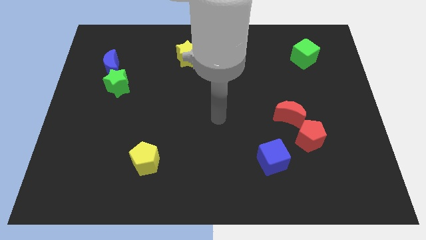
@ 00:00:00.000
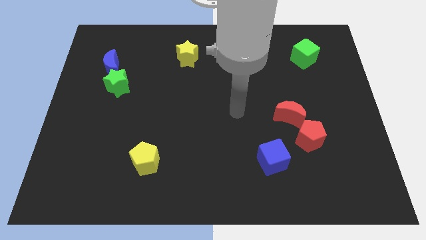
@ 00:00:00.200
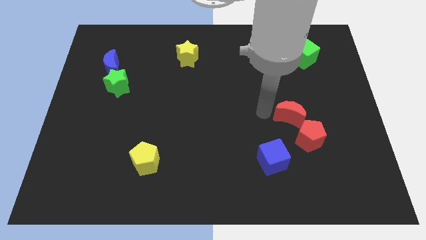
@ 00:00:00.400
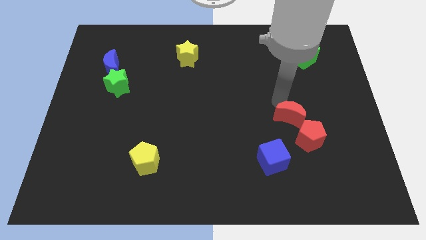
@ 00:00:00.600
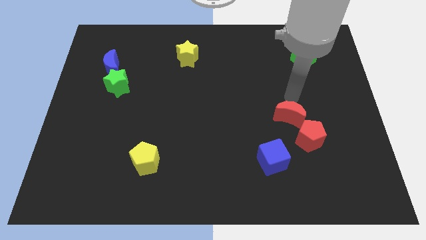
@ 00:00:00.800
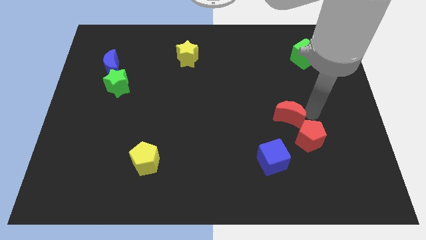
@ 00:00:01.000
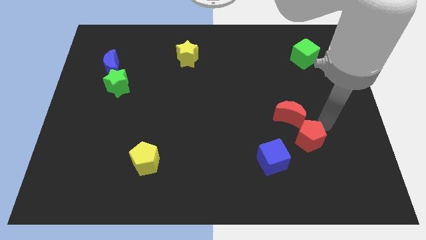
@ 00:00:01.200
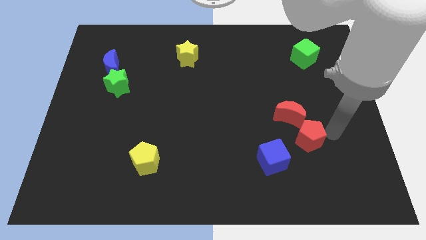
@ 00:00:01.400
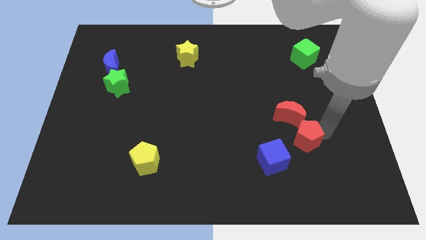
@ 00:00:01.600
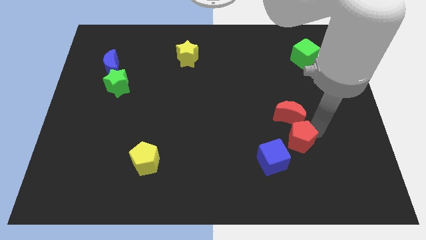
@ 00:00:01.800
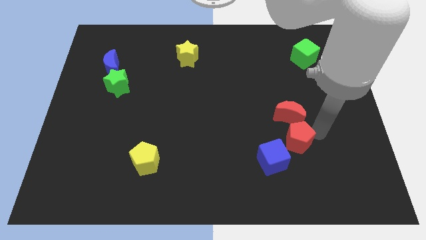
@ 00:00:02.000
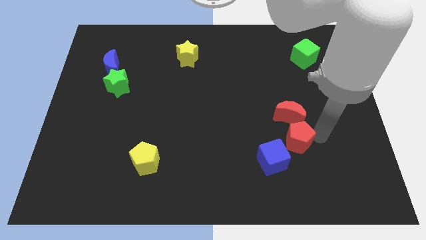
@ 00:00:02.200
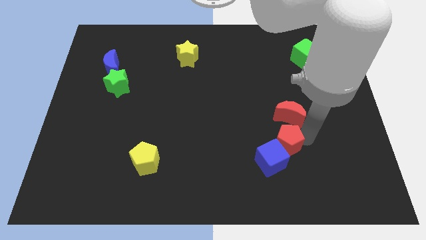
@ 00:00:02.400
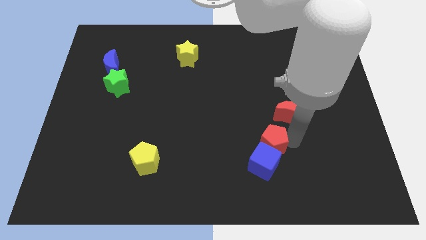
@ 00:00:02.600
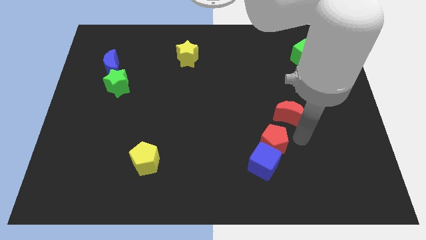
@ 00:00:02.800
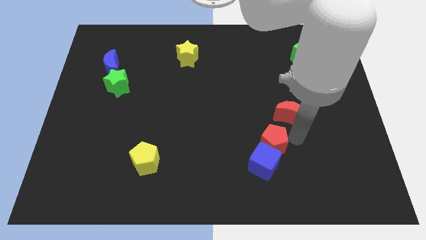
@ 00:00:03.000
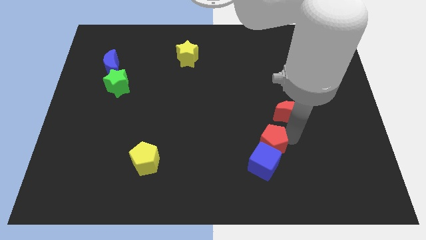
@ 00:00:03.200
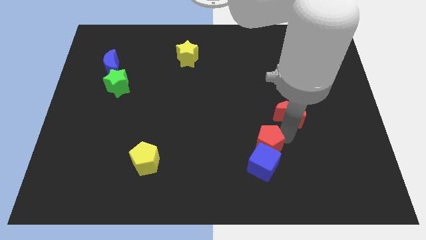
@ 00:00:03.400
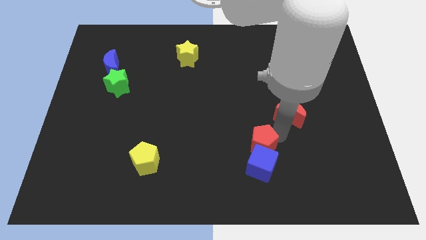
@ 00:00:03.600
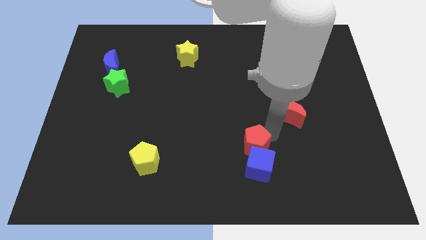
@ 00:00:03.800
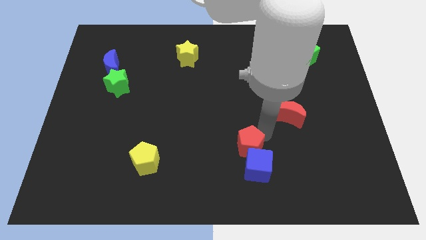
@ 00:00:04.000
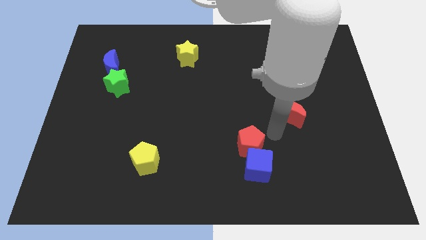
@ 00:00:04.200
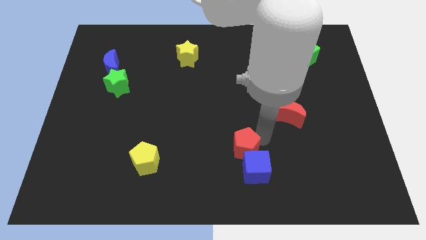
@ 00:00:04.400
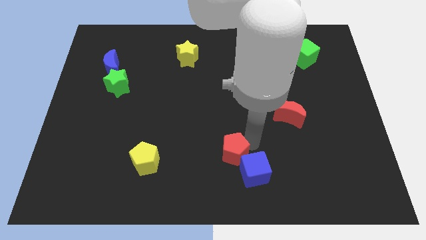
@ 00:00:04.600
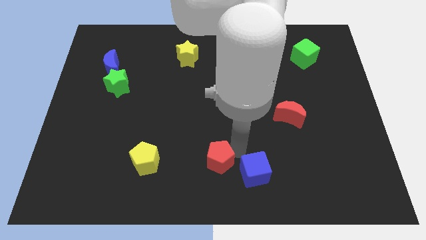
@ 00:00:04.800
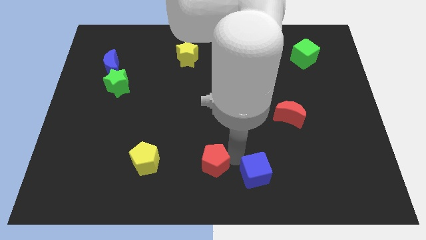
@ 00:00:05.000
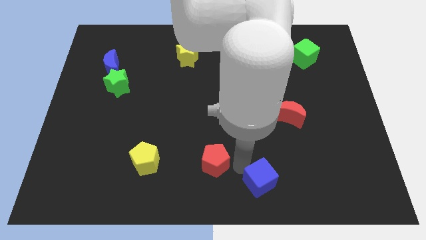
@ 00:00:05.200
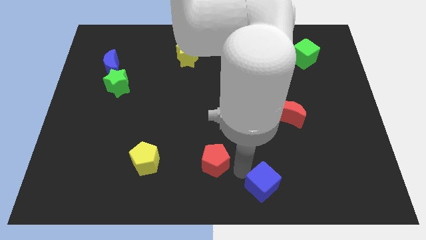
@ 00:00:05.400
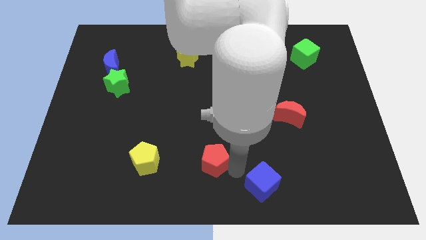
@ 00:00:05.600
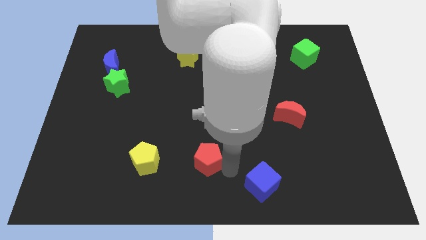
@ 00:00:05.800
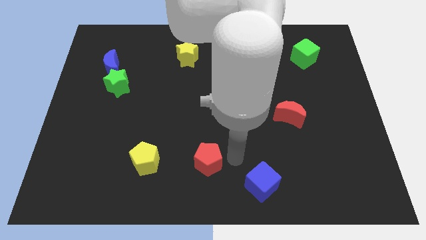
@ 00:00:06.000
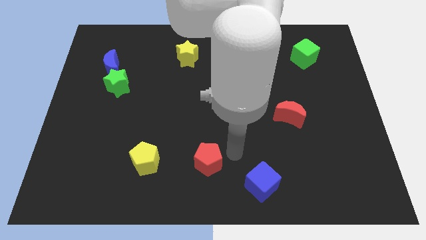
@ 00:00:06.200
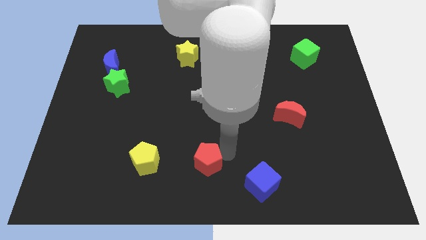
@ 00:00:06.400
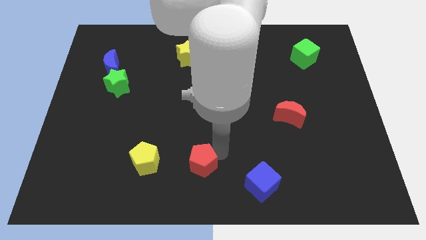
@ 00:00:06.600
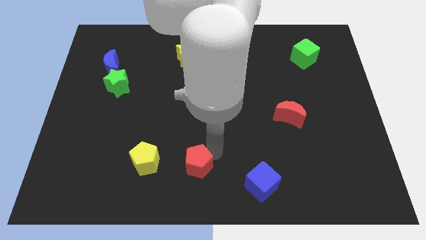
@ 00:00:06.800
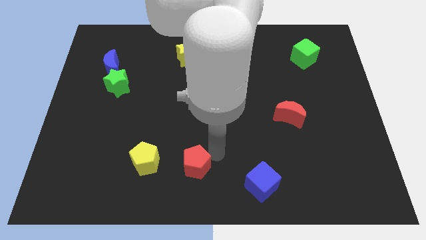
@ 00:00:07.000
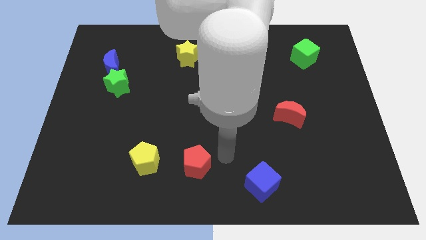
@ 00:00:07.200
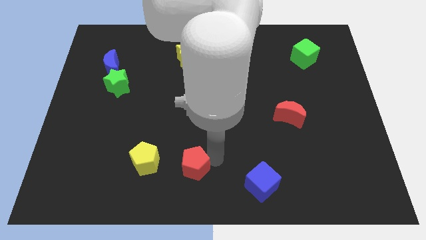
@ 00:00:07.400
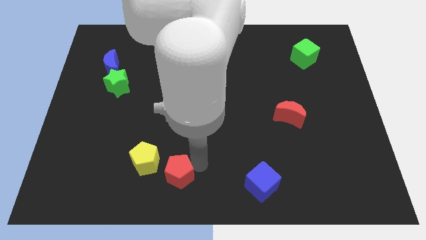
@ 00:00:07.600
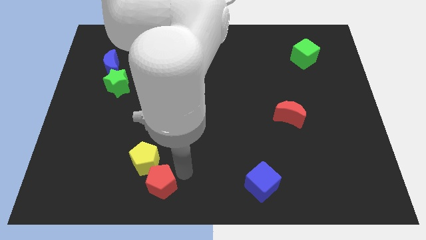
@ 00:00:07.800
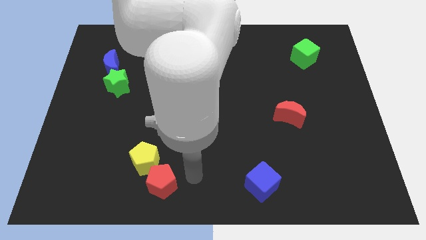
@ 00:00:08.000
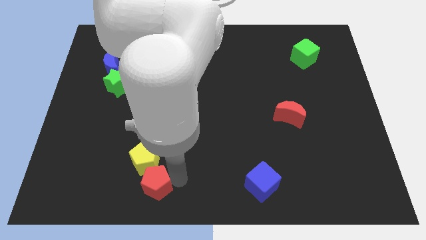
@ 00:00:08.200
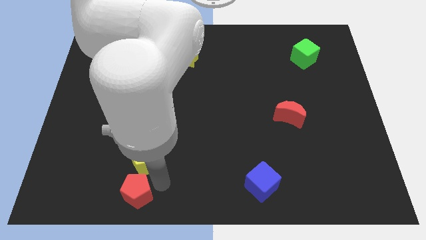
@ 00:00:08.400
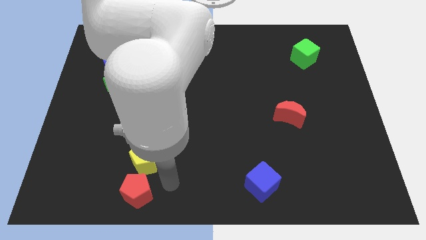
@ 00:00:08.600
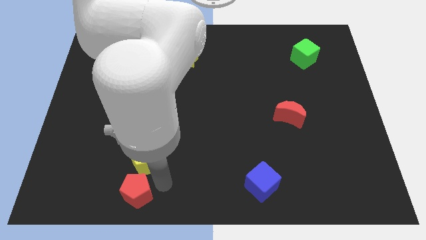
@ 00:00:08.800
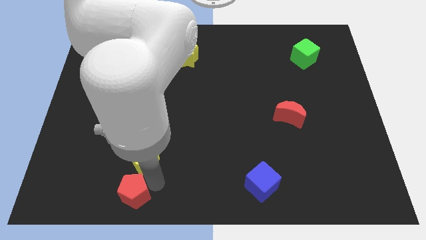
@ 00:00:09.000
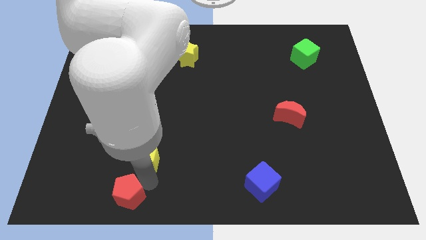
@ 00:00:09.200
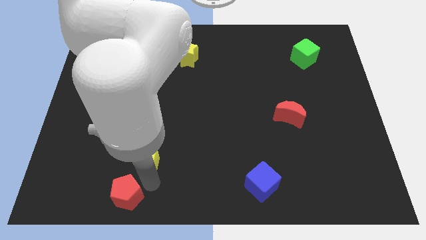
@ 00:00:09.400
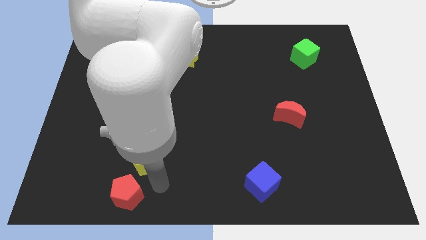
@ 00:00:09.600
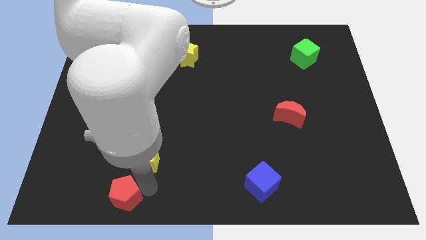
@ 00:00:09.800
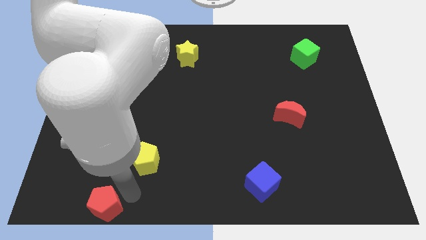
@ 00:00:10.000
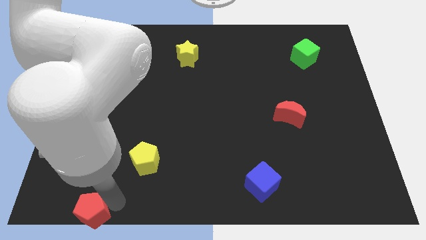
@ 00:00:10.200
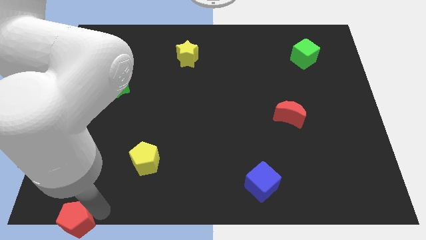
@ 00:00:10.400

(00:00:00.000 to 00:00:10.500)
push the red pentagon to the lower left corner
